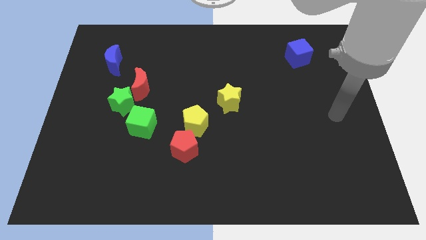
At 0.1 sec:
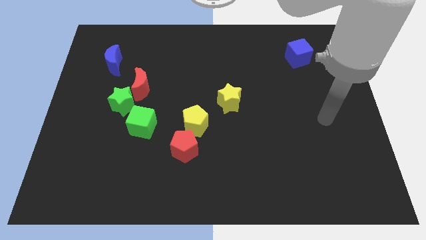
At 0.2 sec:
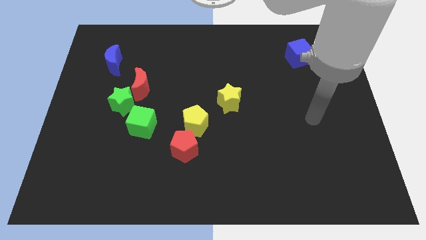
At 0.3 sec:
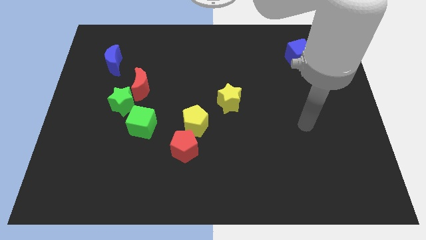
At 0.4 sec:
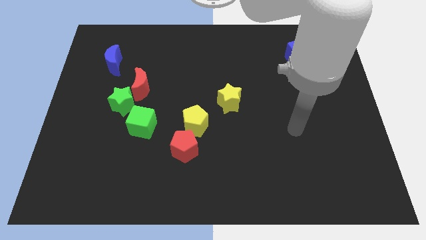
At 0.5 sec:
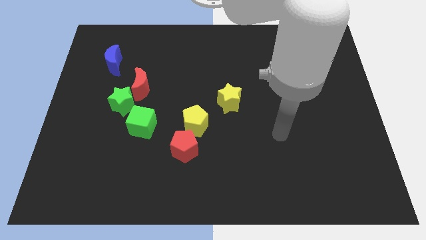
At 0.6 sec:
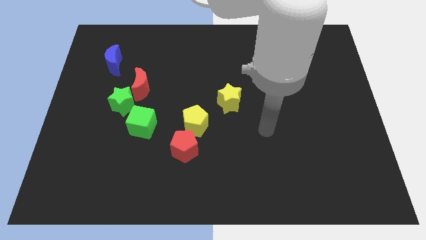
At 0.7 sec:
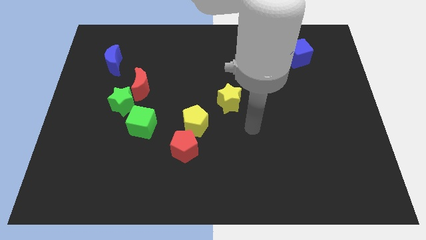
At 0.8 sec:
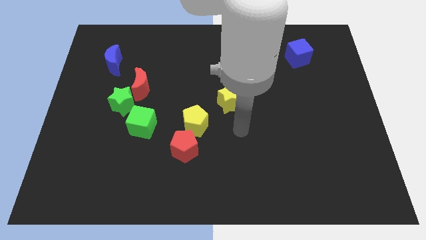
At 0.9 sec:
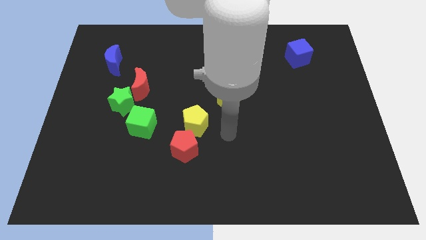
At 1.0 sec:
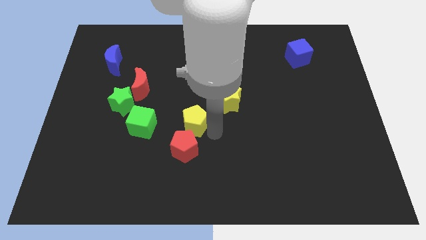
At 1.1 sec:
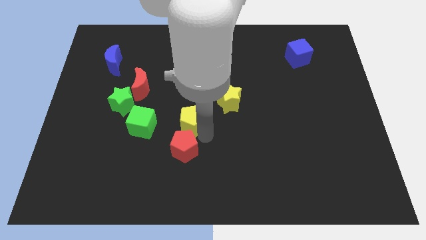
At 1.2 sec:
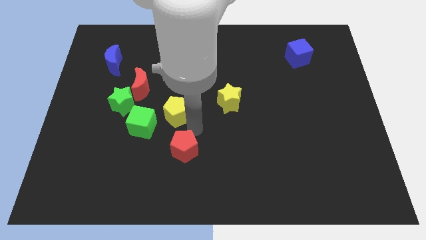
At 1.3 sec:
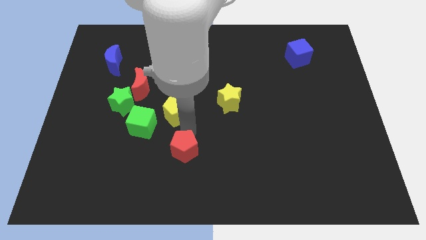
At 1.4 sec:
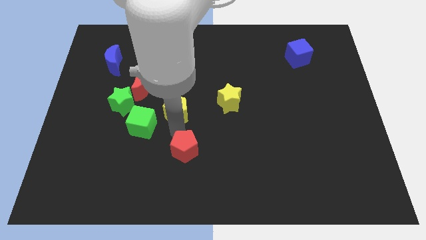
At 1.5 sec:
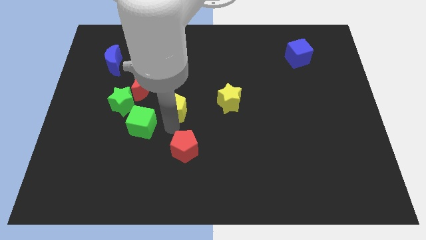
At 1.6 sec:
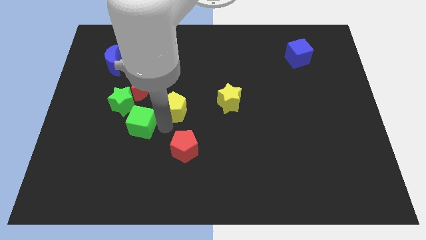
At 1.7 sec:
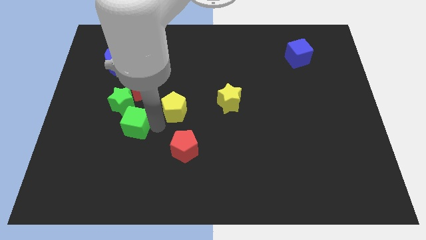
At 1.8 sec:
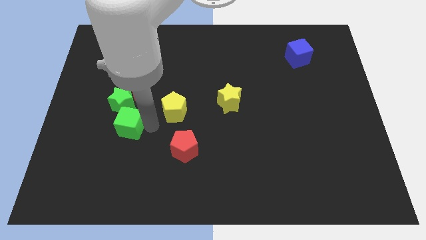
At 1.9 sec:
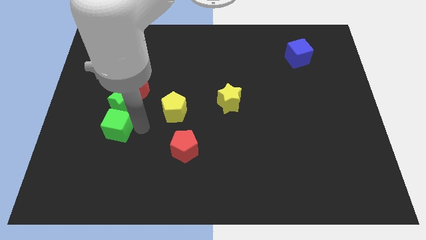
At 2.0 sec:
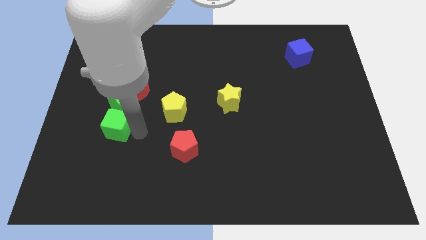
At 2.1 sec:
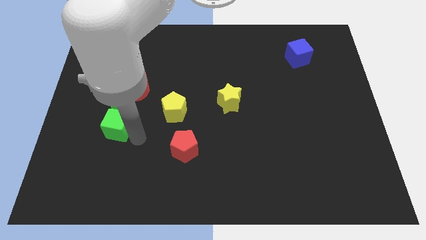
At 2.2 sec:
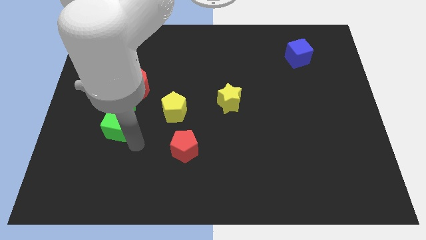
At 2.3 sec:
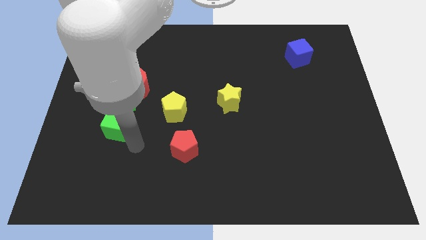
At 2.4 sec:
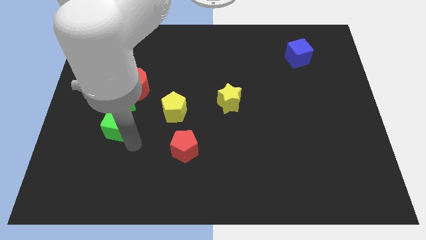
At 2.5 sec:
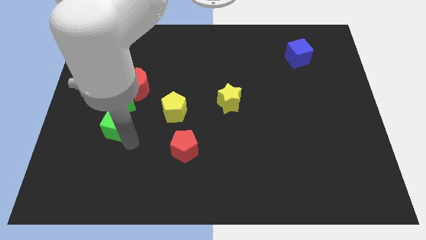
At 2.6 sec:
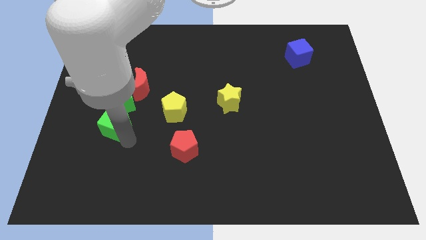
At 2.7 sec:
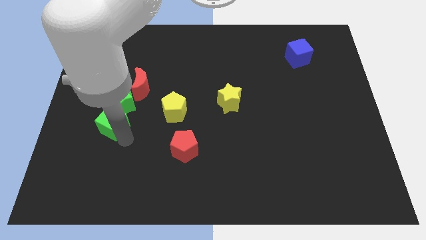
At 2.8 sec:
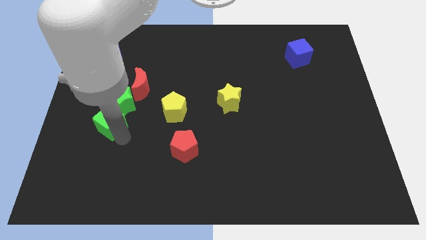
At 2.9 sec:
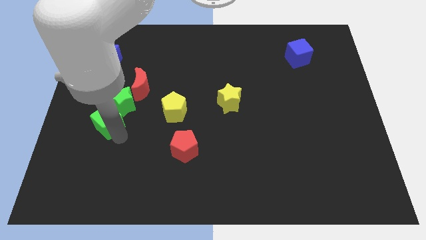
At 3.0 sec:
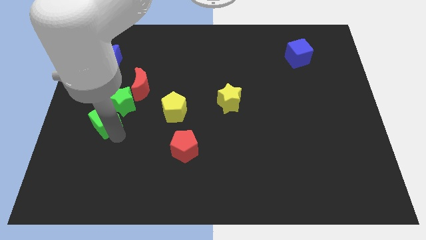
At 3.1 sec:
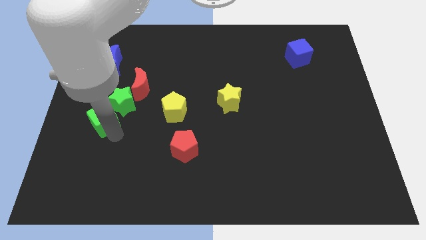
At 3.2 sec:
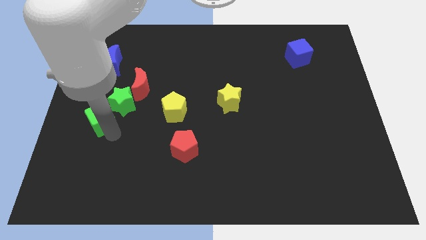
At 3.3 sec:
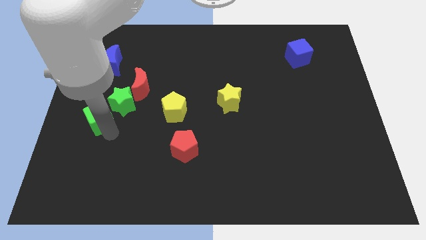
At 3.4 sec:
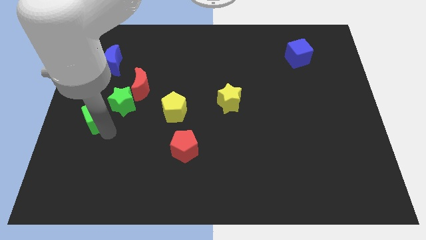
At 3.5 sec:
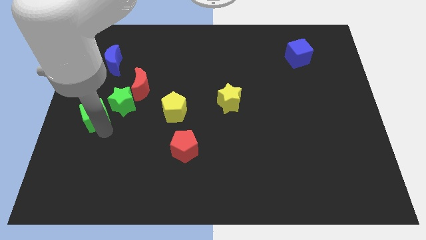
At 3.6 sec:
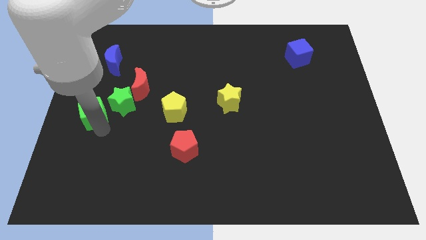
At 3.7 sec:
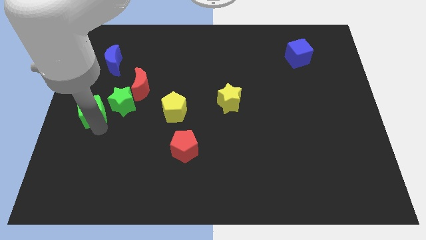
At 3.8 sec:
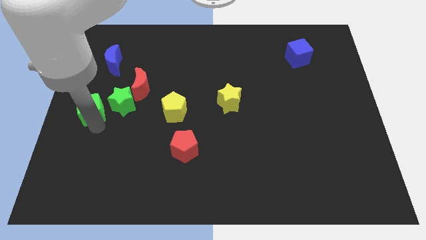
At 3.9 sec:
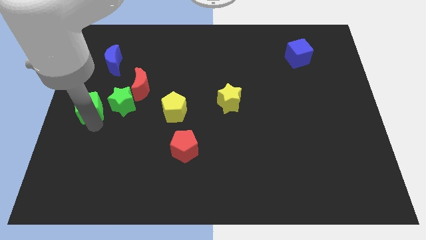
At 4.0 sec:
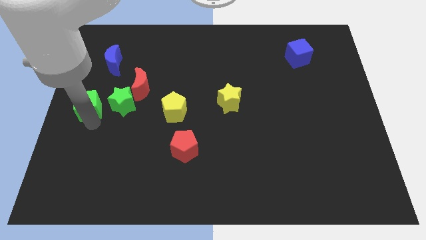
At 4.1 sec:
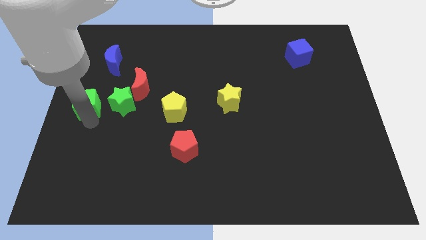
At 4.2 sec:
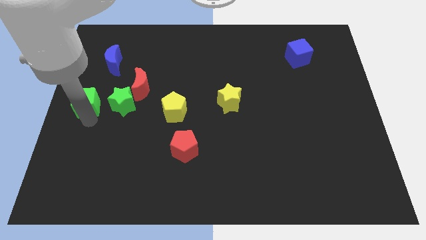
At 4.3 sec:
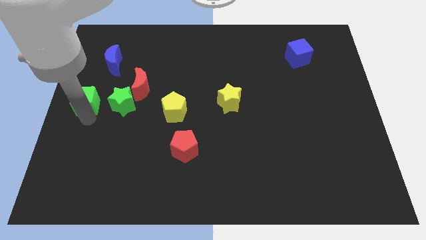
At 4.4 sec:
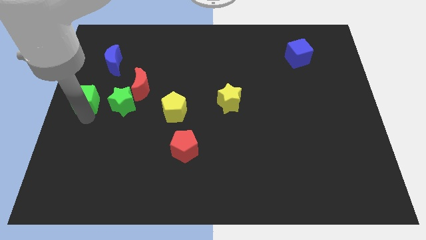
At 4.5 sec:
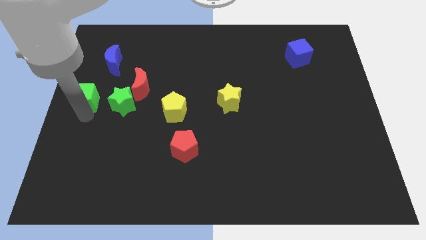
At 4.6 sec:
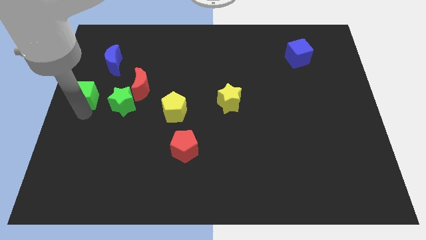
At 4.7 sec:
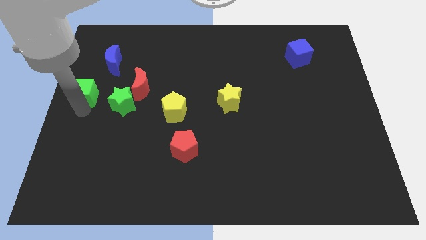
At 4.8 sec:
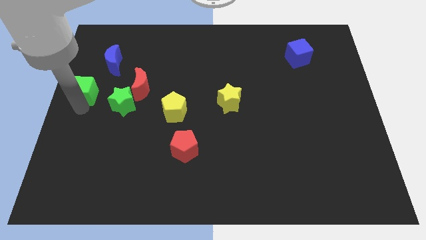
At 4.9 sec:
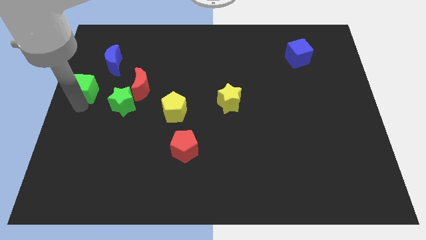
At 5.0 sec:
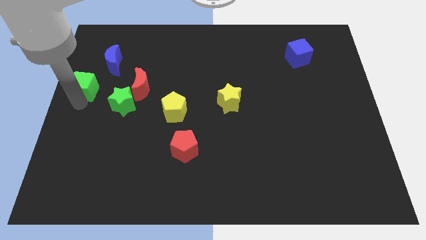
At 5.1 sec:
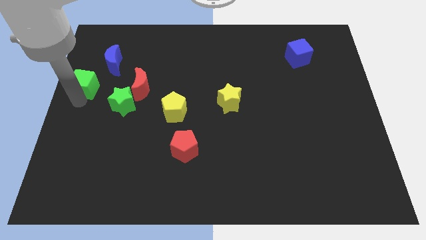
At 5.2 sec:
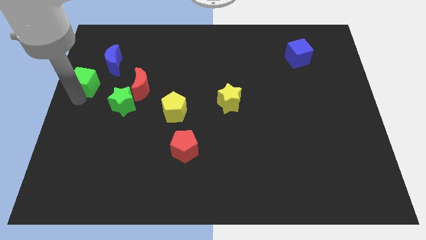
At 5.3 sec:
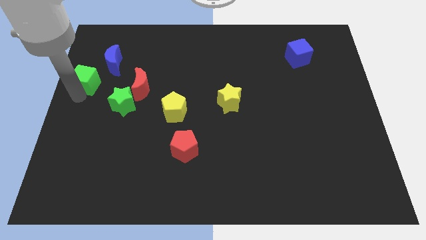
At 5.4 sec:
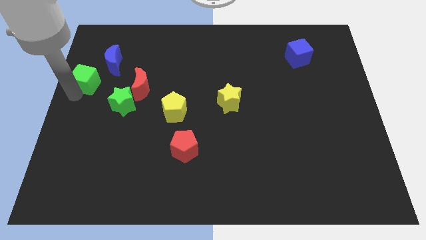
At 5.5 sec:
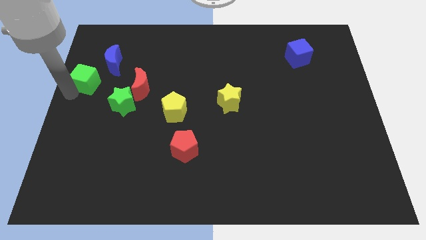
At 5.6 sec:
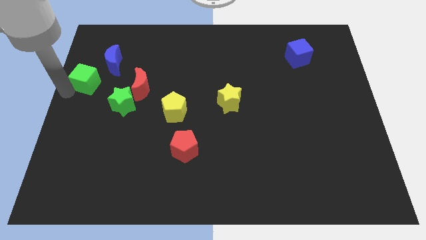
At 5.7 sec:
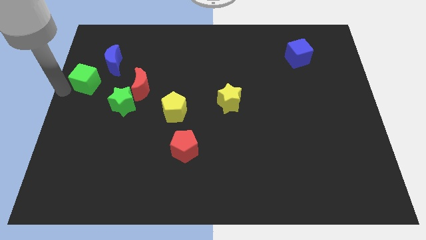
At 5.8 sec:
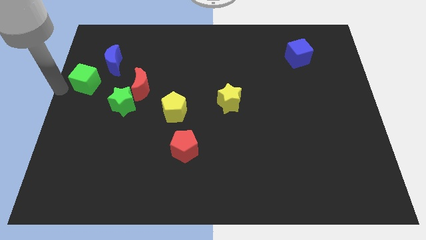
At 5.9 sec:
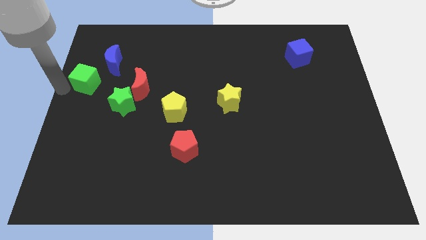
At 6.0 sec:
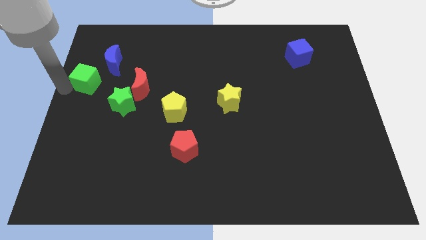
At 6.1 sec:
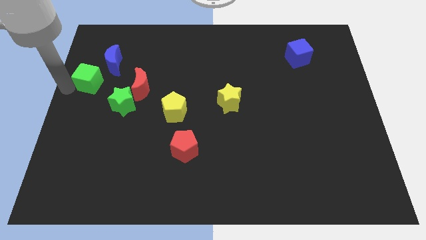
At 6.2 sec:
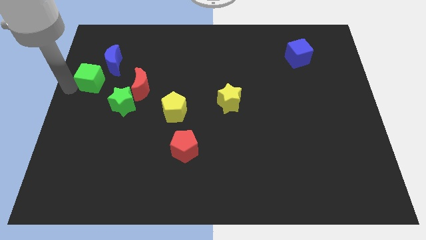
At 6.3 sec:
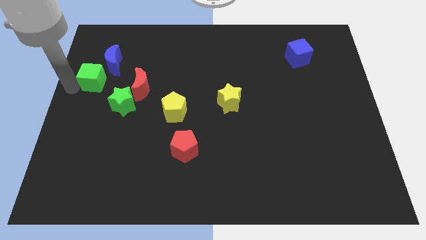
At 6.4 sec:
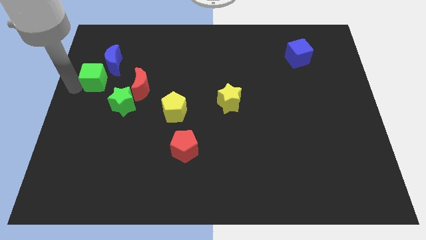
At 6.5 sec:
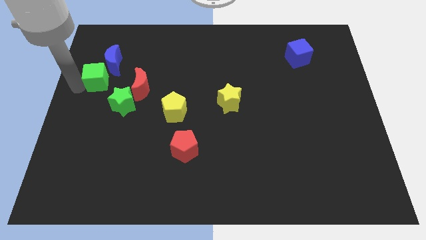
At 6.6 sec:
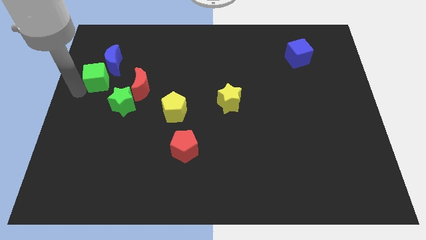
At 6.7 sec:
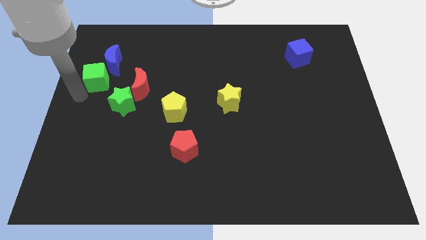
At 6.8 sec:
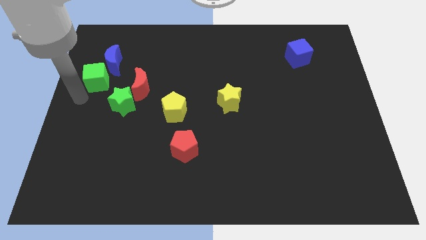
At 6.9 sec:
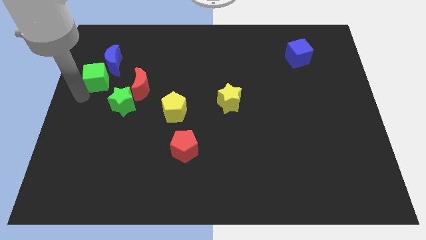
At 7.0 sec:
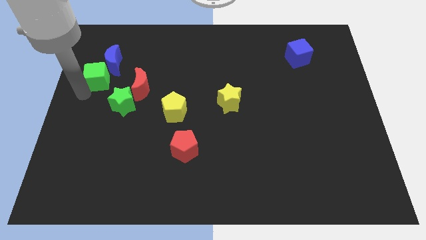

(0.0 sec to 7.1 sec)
push the green cube close to the blue moon

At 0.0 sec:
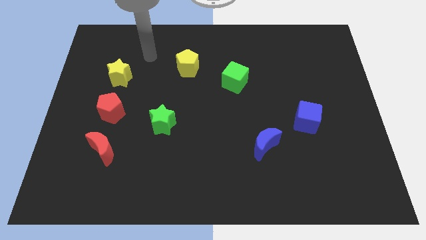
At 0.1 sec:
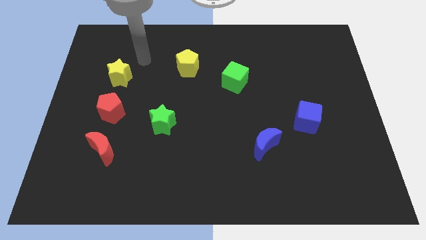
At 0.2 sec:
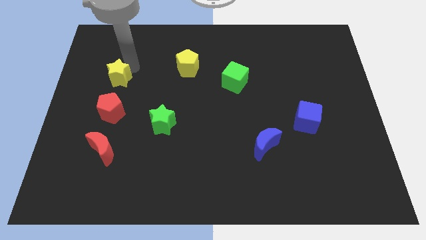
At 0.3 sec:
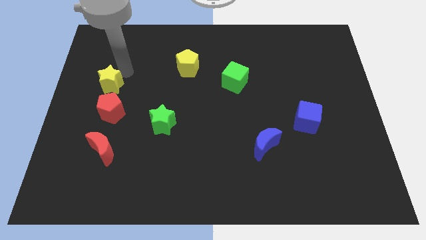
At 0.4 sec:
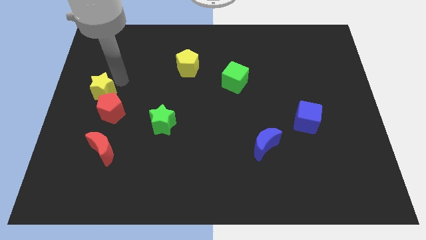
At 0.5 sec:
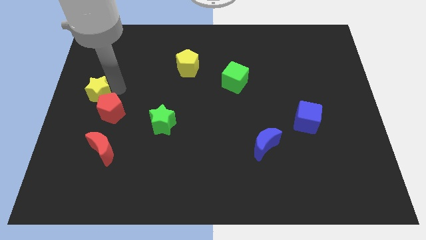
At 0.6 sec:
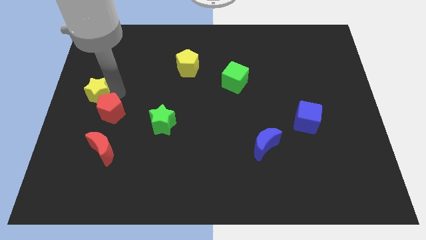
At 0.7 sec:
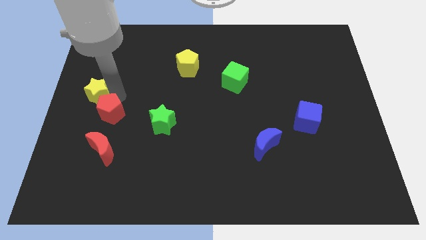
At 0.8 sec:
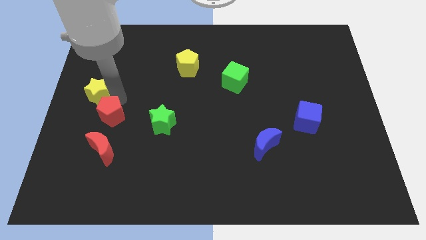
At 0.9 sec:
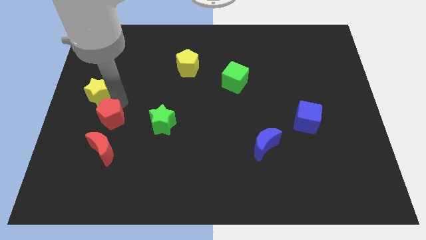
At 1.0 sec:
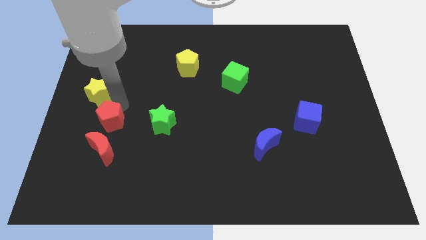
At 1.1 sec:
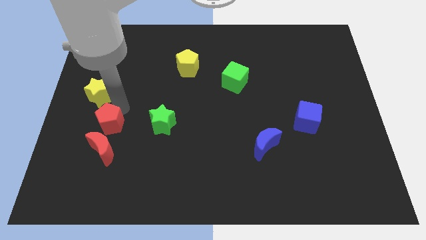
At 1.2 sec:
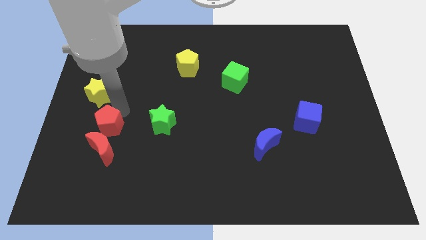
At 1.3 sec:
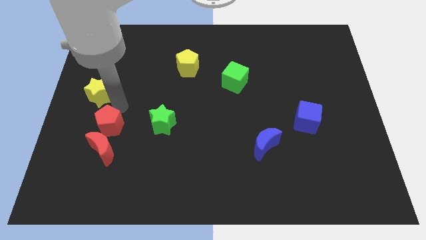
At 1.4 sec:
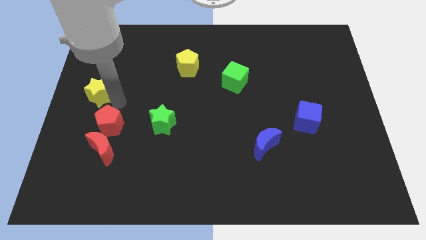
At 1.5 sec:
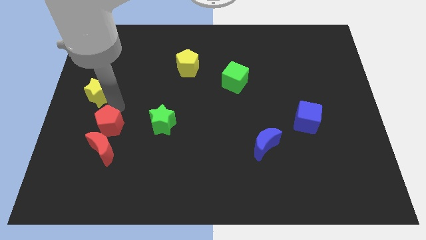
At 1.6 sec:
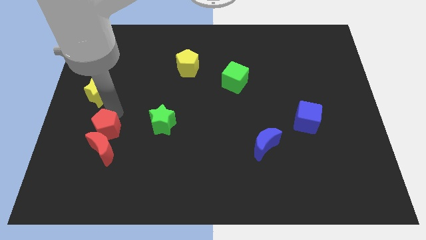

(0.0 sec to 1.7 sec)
move the red pentagon next to the red moon
